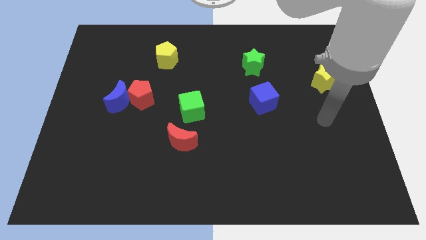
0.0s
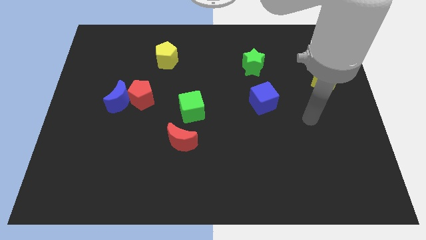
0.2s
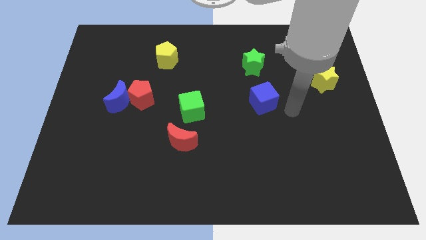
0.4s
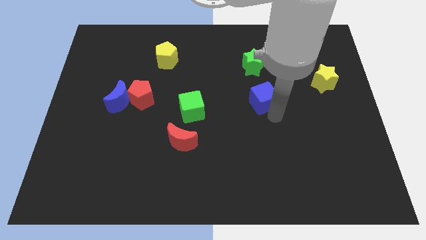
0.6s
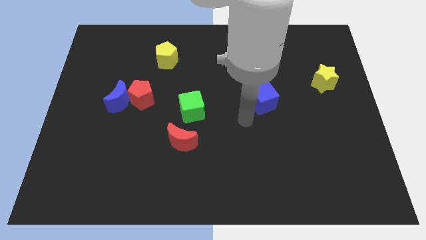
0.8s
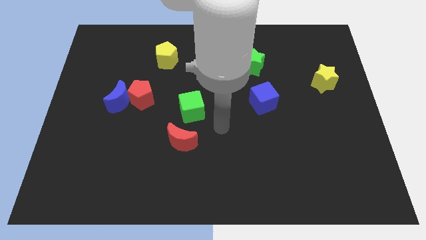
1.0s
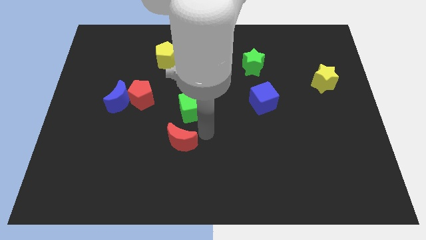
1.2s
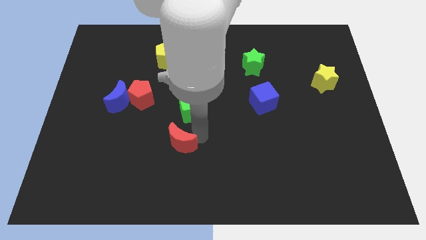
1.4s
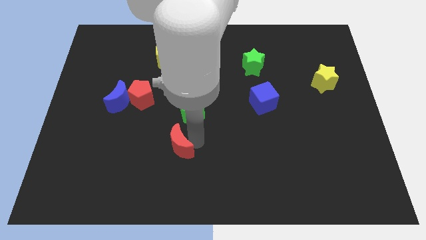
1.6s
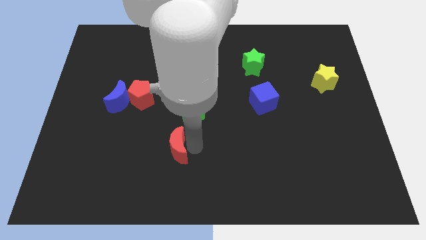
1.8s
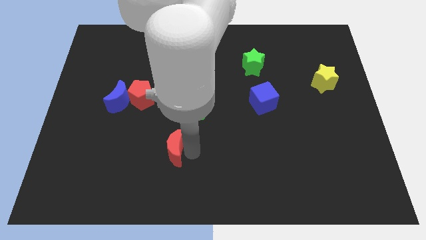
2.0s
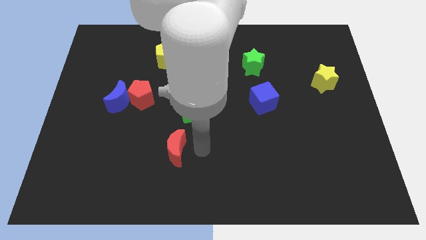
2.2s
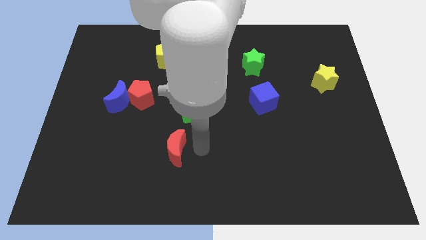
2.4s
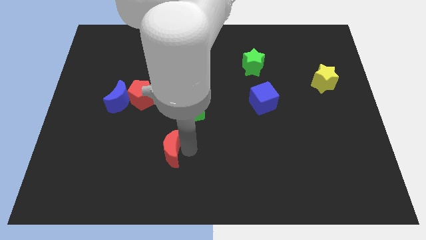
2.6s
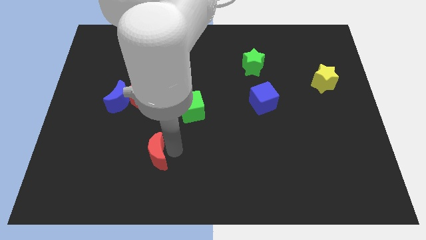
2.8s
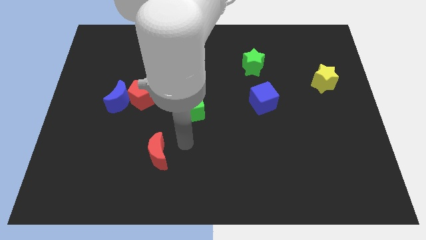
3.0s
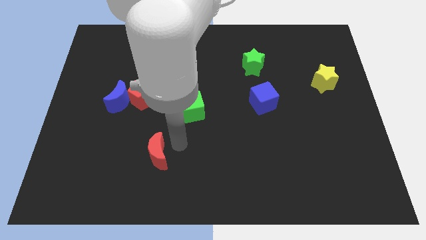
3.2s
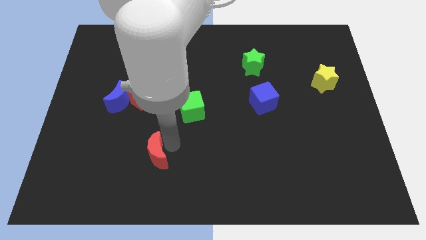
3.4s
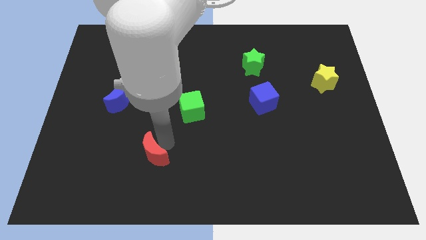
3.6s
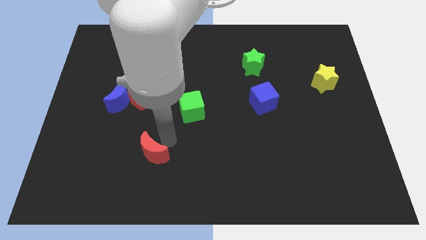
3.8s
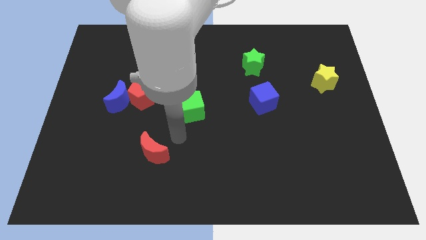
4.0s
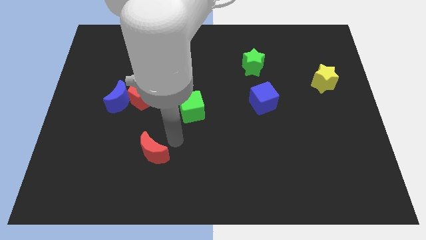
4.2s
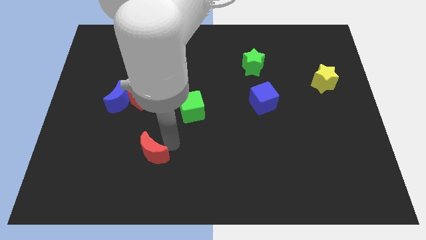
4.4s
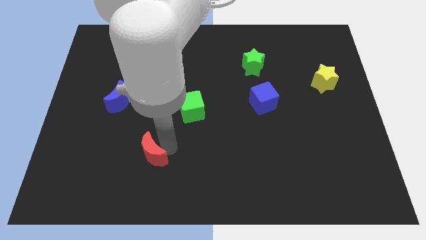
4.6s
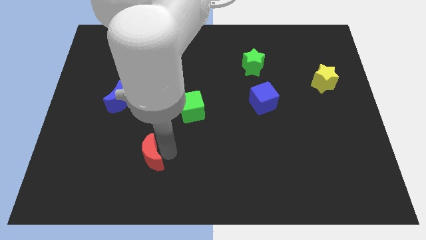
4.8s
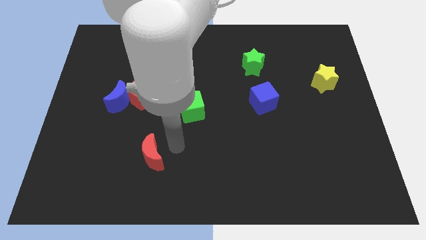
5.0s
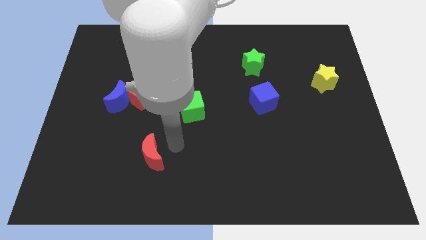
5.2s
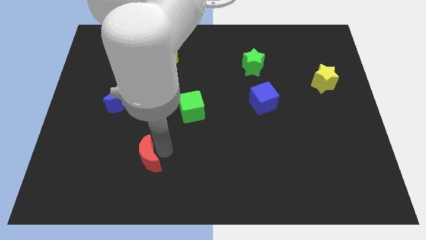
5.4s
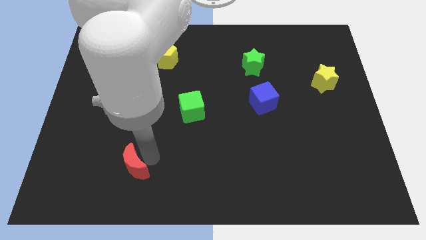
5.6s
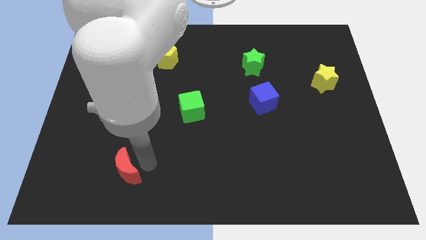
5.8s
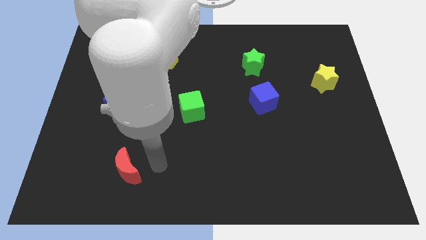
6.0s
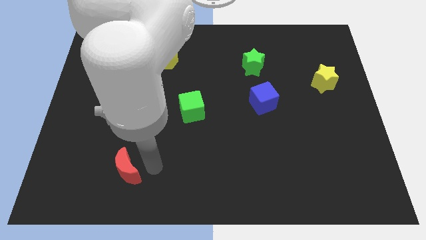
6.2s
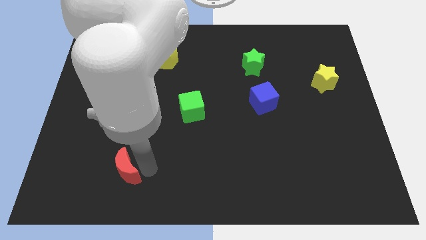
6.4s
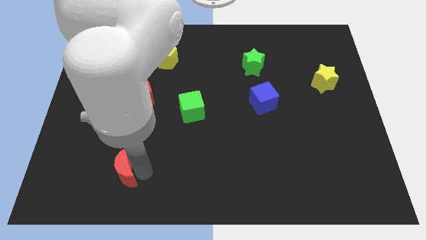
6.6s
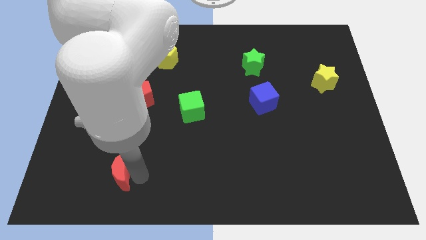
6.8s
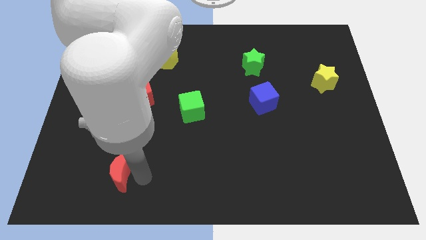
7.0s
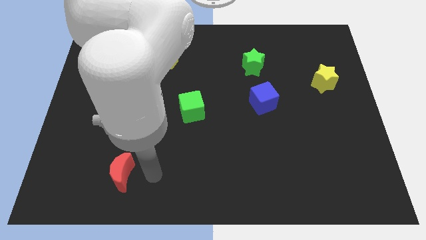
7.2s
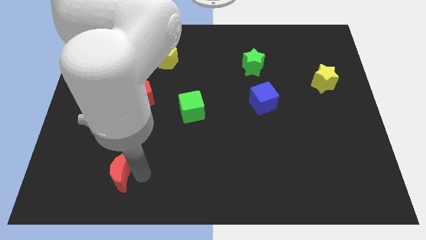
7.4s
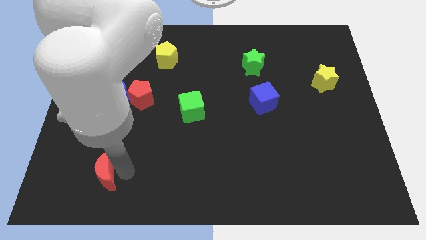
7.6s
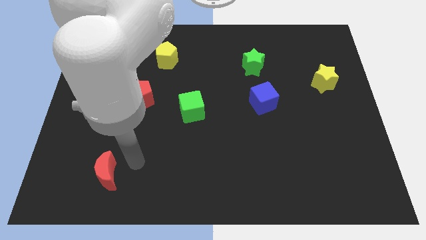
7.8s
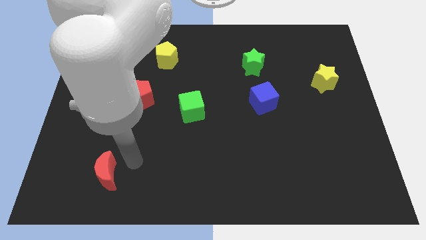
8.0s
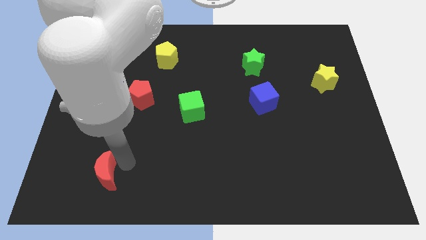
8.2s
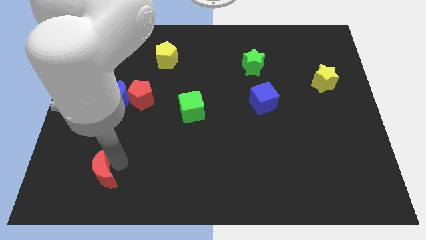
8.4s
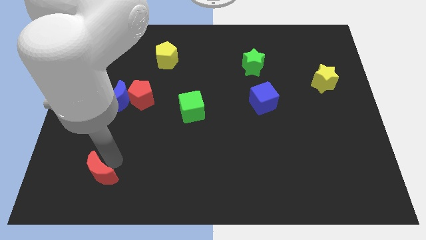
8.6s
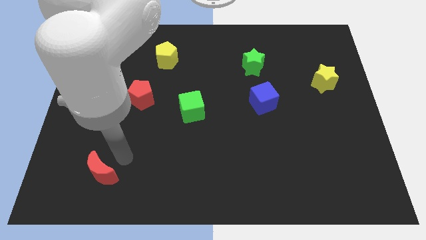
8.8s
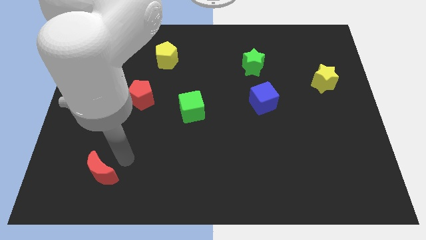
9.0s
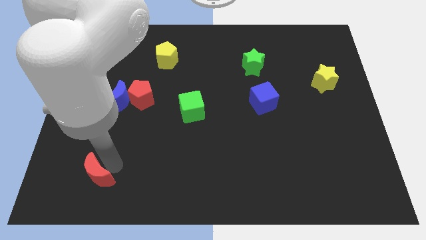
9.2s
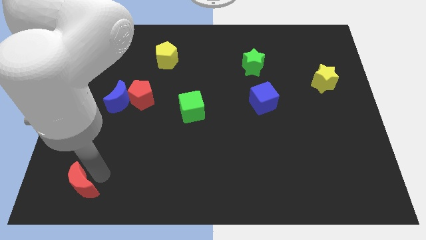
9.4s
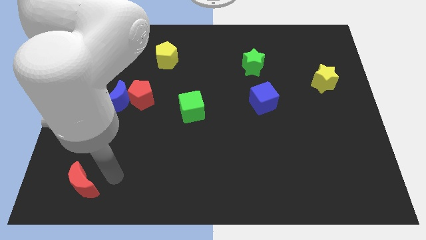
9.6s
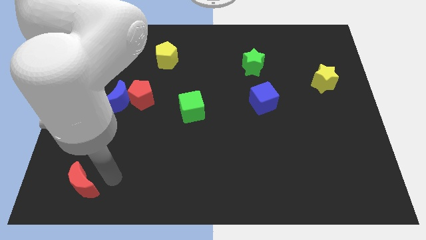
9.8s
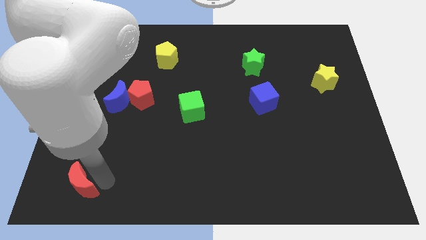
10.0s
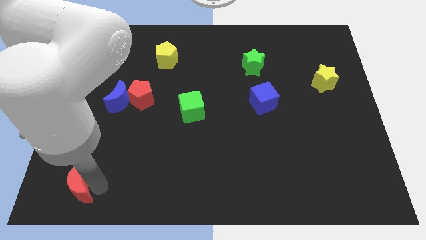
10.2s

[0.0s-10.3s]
move the red moon to the bottom left
